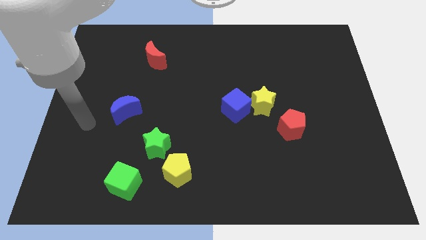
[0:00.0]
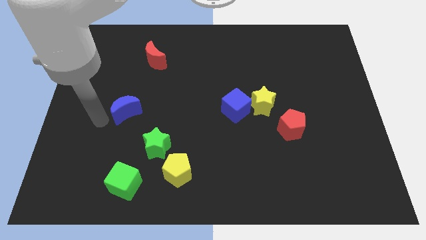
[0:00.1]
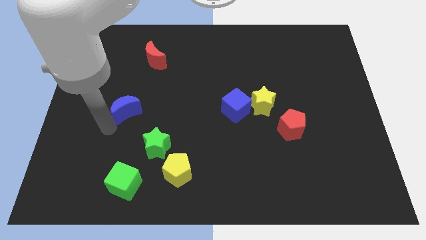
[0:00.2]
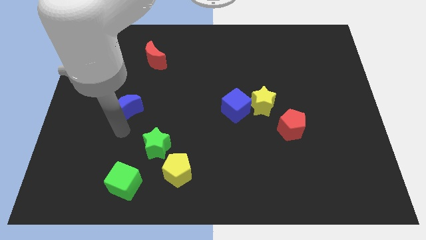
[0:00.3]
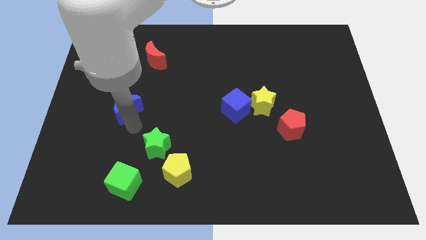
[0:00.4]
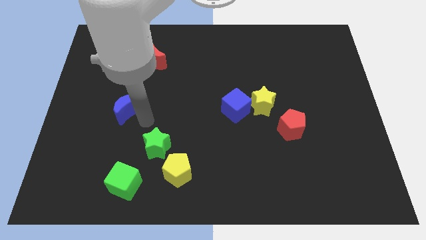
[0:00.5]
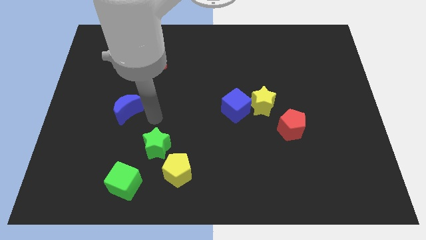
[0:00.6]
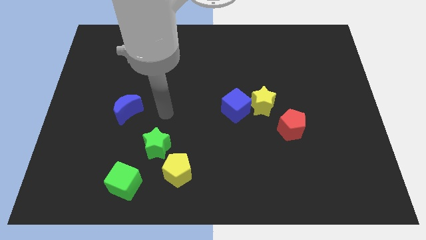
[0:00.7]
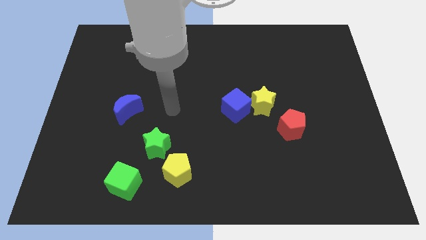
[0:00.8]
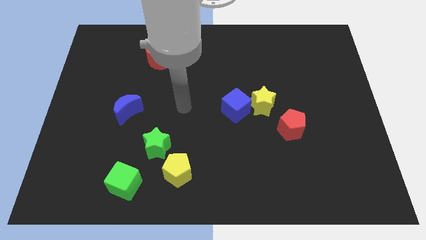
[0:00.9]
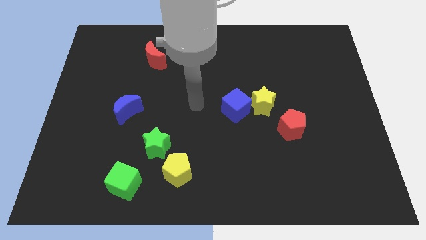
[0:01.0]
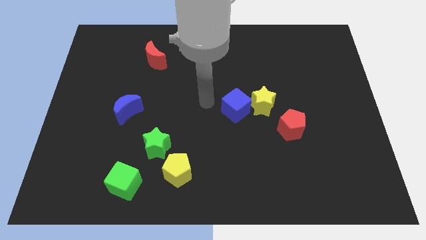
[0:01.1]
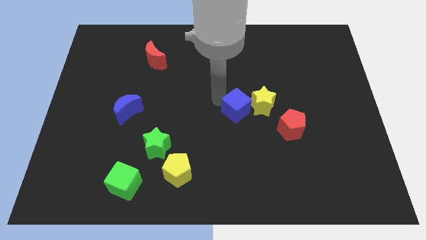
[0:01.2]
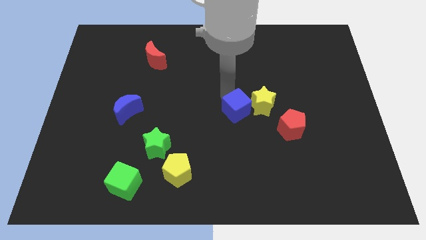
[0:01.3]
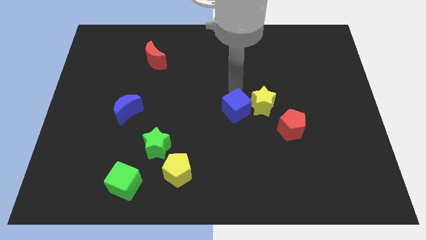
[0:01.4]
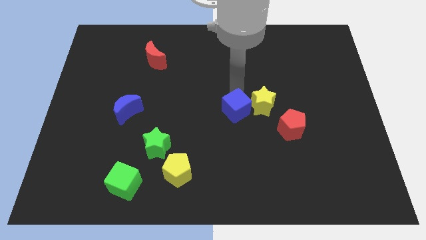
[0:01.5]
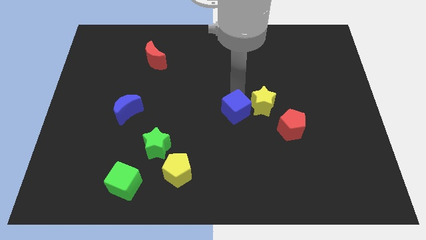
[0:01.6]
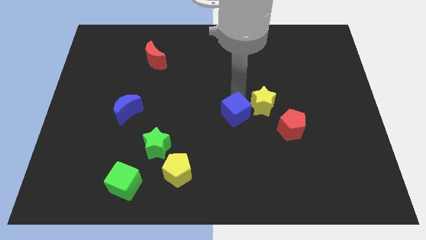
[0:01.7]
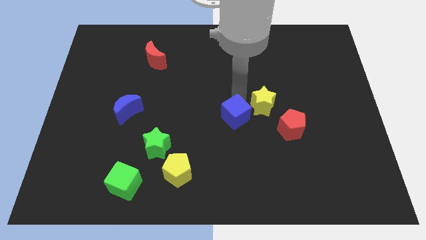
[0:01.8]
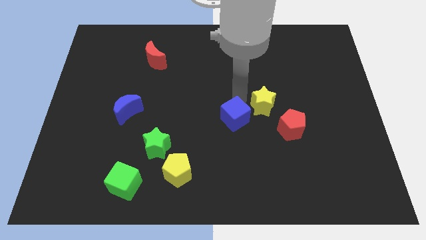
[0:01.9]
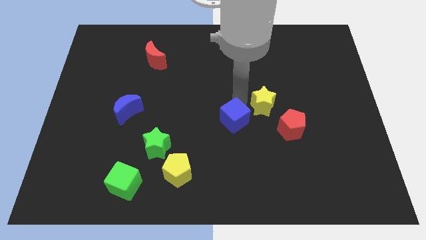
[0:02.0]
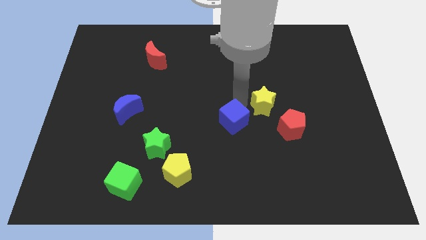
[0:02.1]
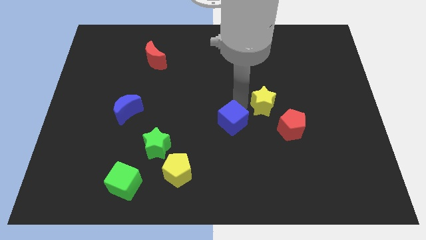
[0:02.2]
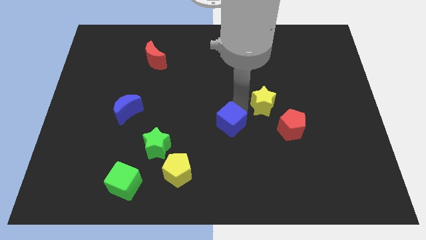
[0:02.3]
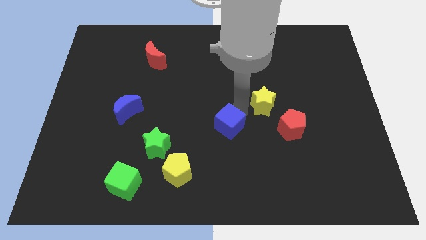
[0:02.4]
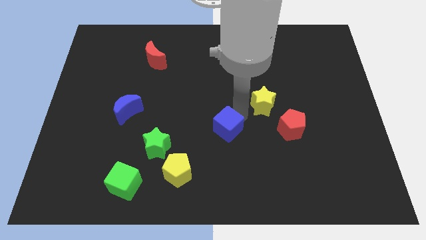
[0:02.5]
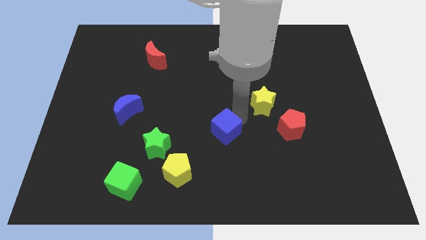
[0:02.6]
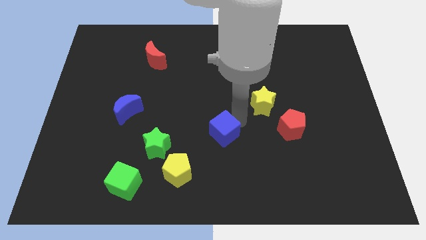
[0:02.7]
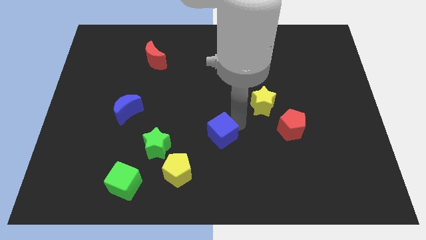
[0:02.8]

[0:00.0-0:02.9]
slightly slide the blue cube downwards

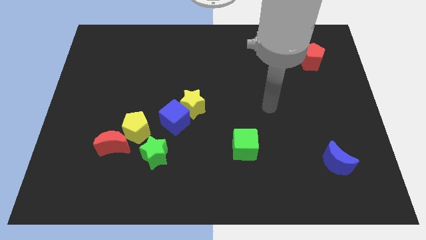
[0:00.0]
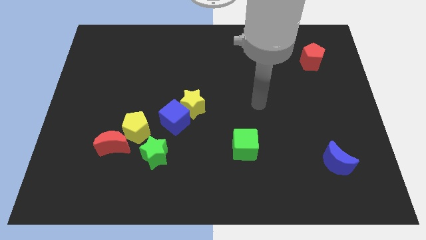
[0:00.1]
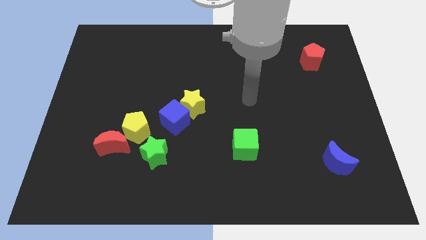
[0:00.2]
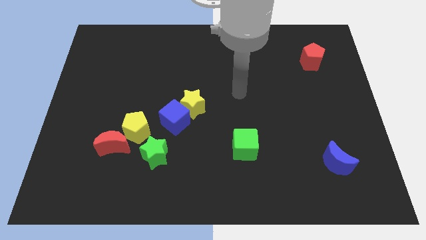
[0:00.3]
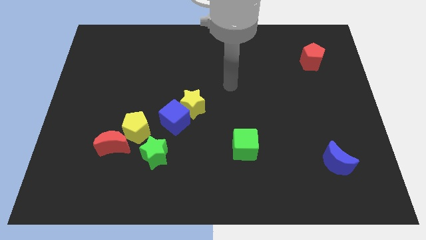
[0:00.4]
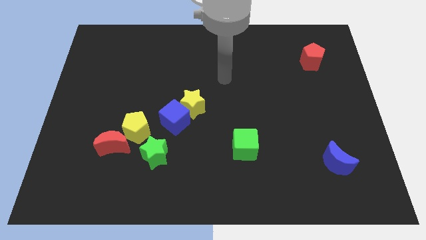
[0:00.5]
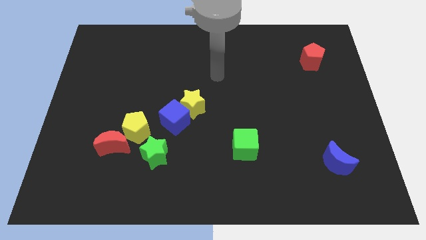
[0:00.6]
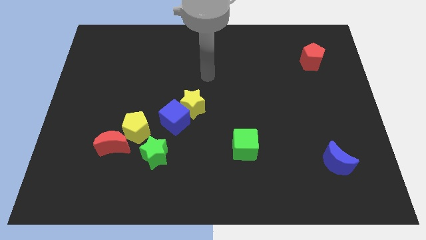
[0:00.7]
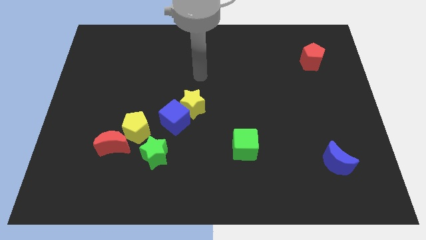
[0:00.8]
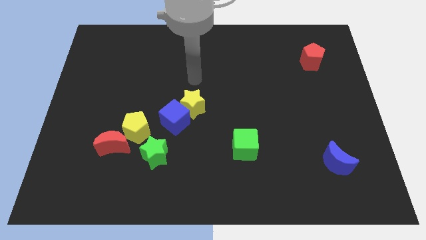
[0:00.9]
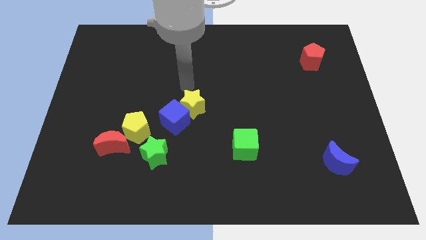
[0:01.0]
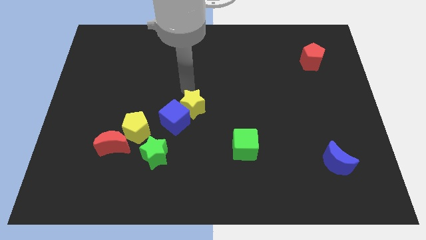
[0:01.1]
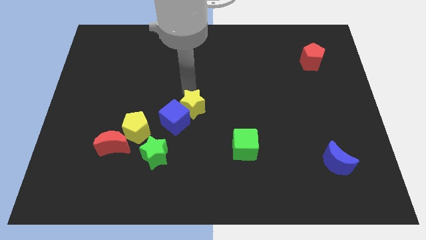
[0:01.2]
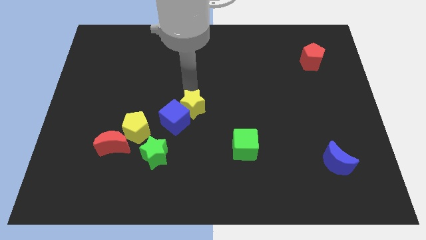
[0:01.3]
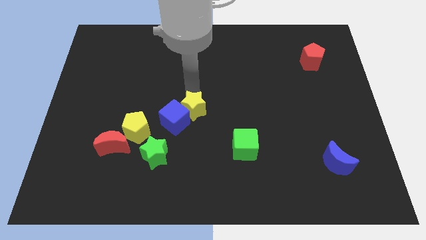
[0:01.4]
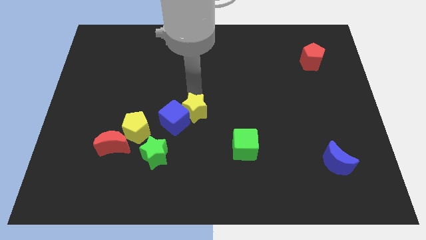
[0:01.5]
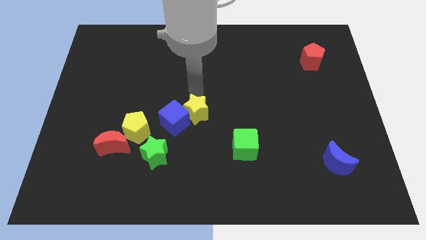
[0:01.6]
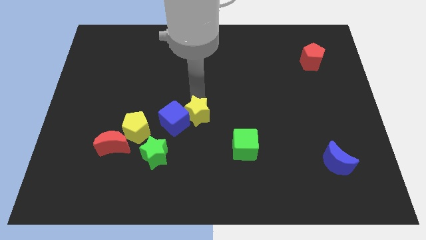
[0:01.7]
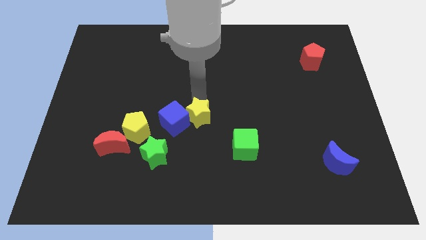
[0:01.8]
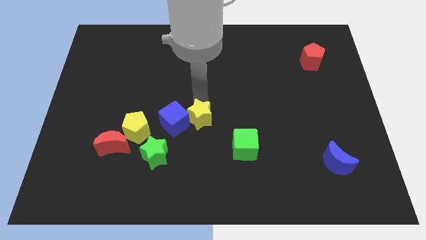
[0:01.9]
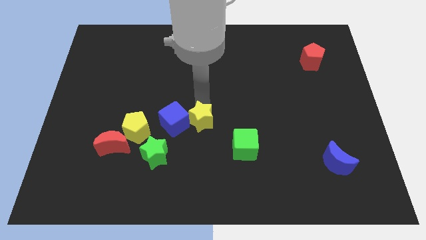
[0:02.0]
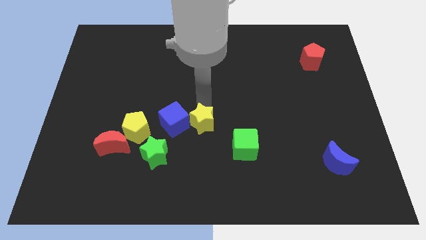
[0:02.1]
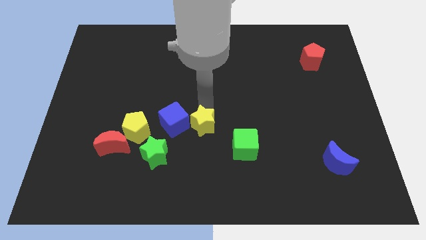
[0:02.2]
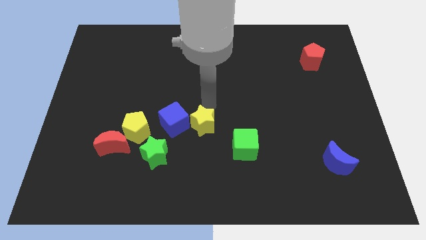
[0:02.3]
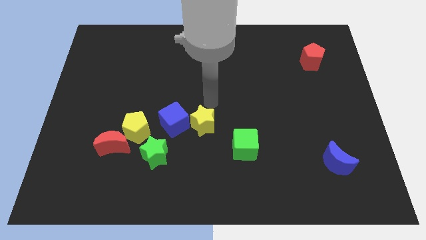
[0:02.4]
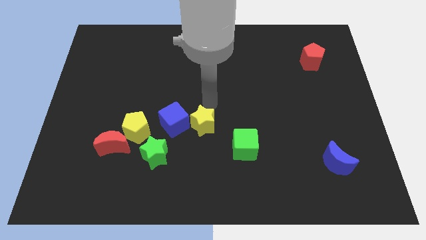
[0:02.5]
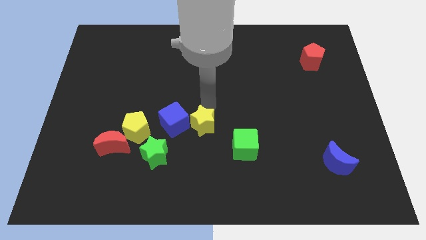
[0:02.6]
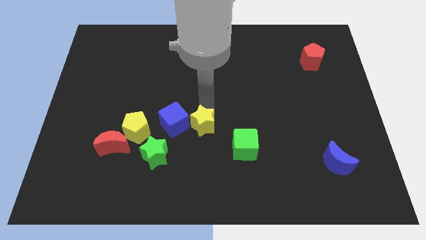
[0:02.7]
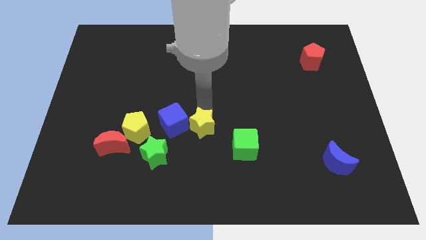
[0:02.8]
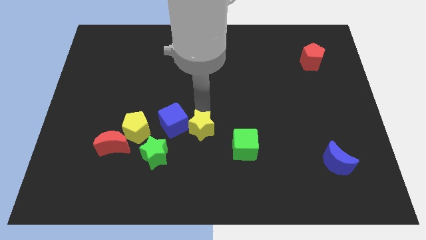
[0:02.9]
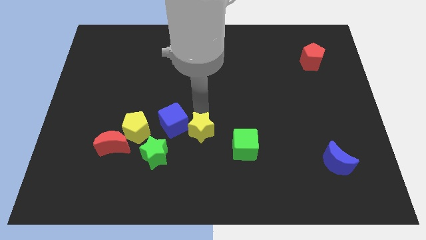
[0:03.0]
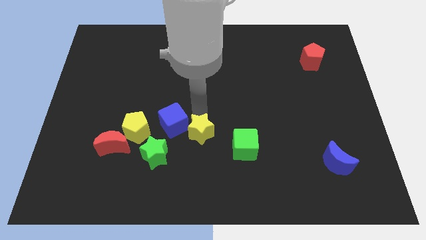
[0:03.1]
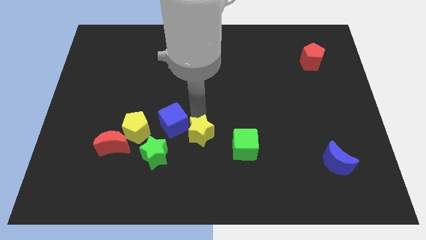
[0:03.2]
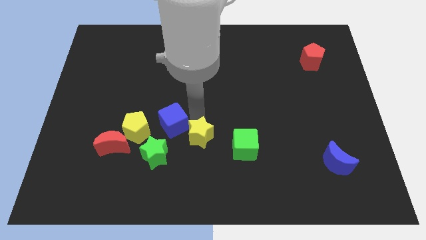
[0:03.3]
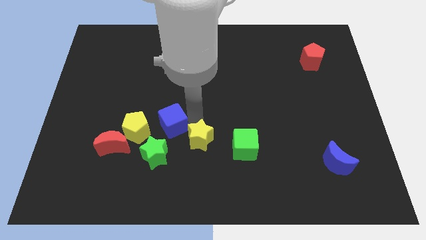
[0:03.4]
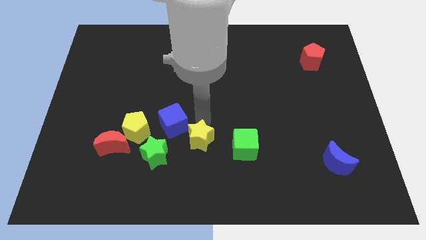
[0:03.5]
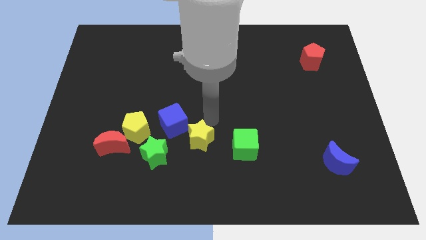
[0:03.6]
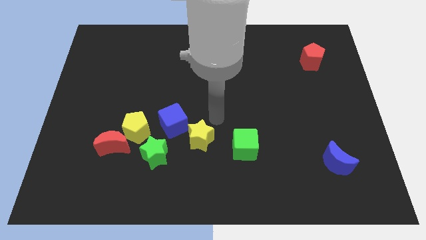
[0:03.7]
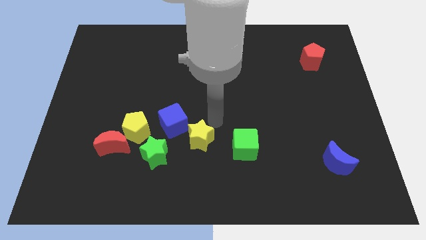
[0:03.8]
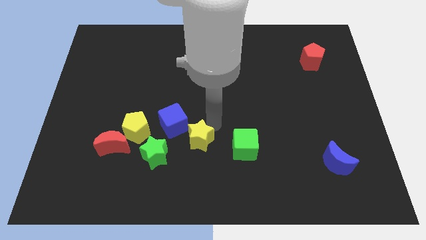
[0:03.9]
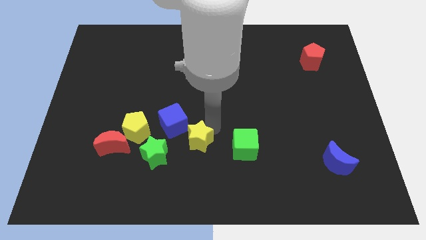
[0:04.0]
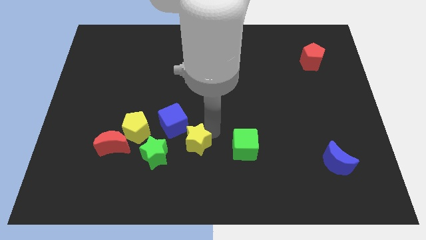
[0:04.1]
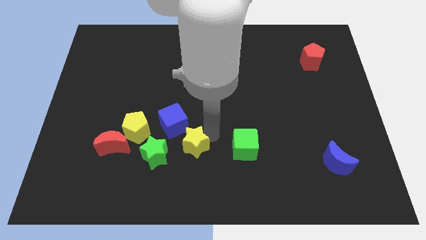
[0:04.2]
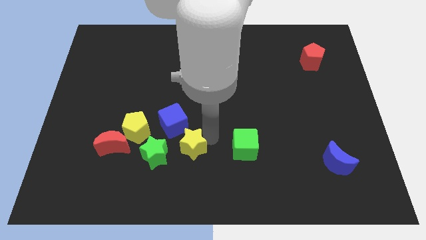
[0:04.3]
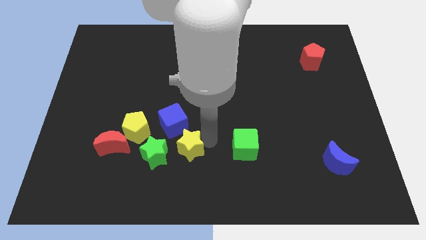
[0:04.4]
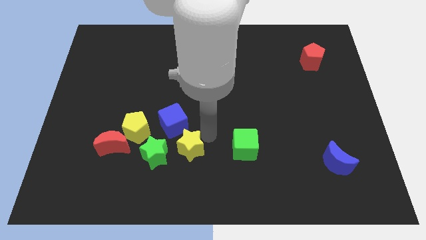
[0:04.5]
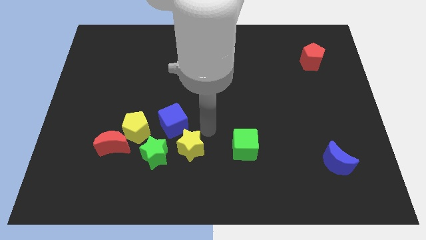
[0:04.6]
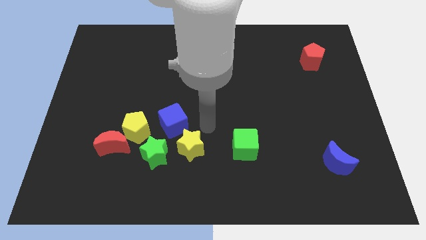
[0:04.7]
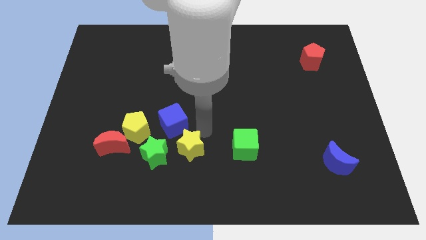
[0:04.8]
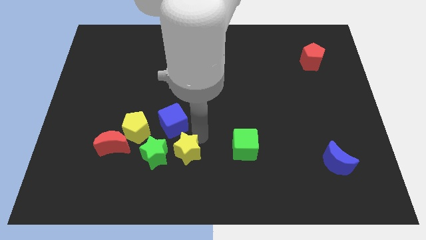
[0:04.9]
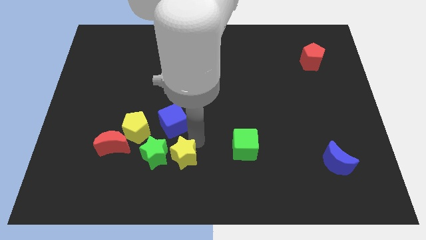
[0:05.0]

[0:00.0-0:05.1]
slide the yellow star a little down and to the left diagonally
